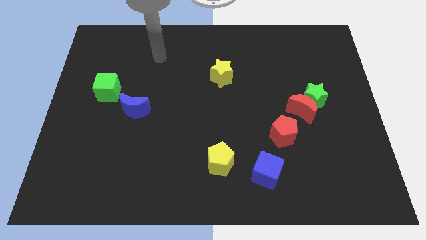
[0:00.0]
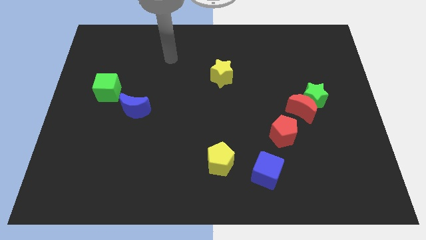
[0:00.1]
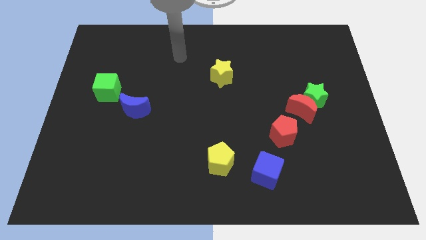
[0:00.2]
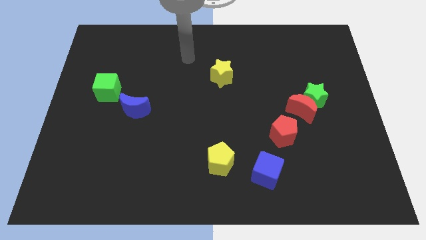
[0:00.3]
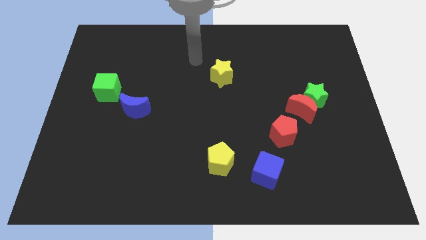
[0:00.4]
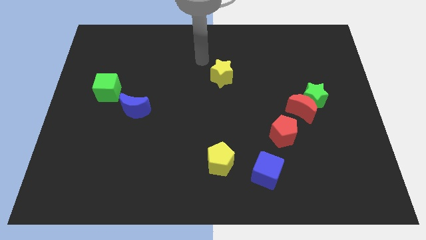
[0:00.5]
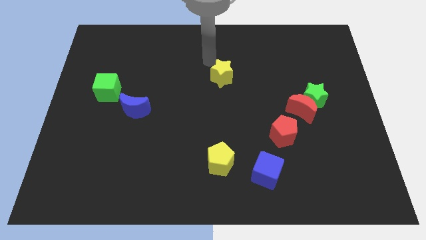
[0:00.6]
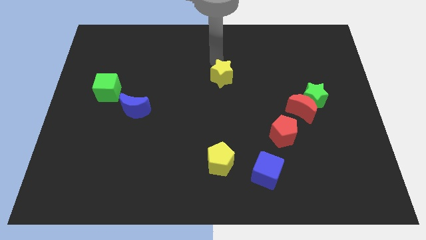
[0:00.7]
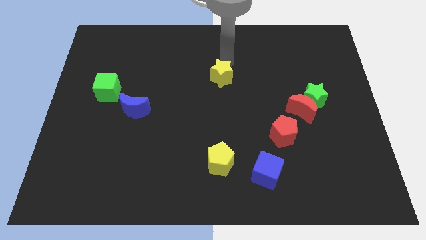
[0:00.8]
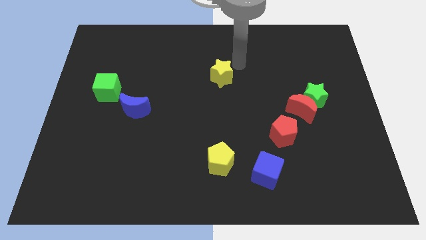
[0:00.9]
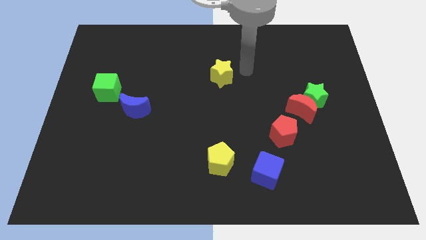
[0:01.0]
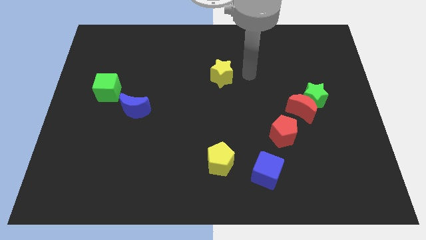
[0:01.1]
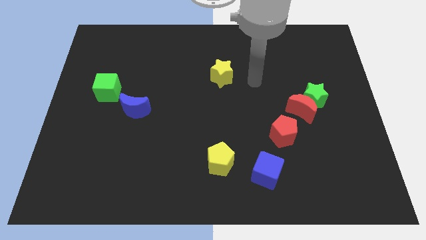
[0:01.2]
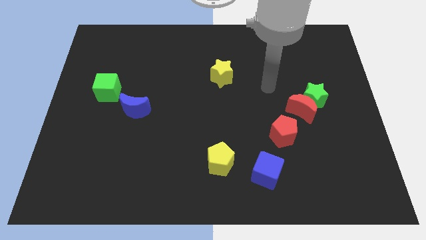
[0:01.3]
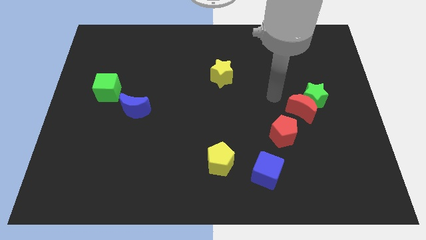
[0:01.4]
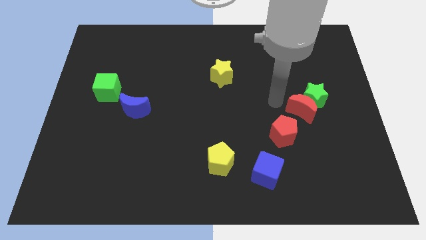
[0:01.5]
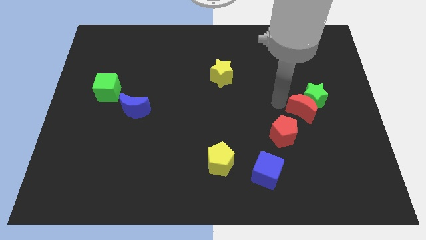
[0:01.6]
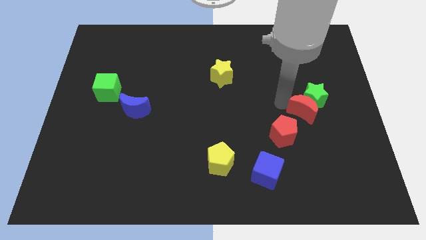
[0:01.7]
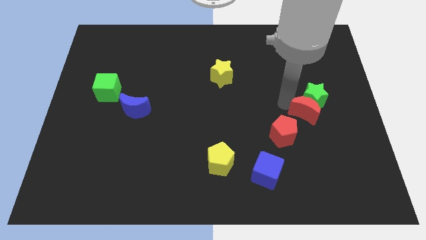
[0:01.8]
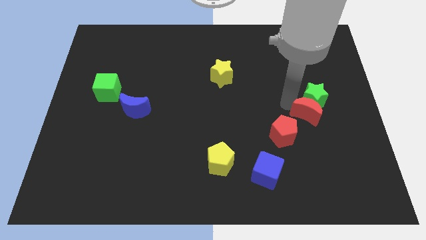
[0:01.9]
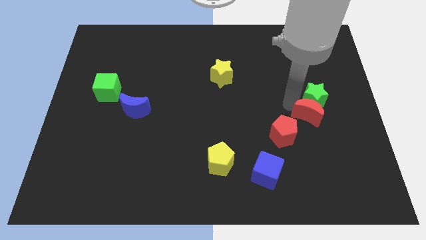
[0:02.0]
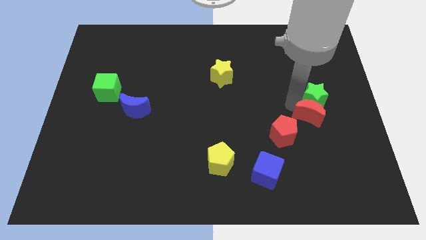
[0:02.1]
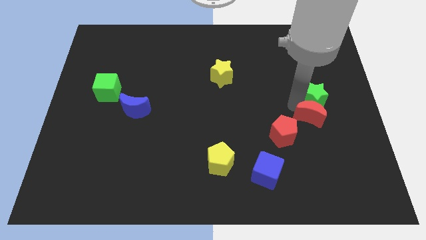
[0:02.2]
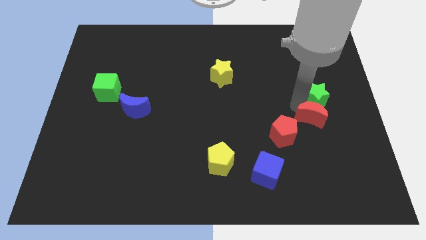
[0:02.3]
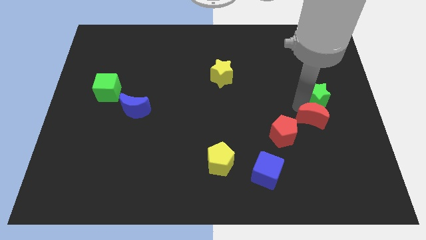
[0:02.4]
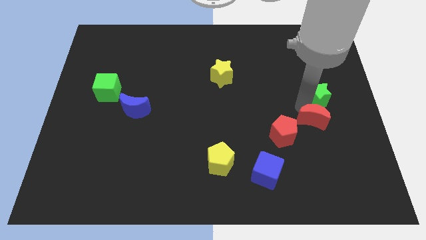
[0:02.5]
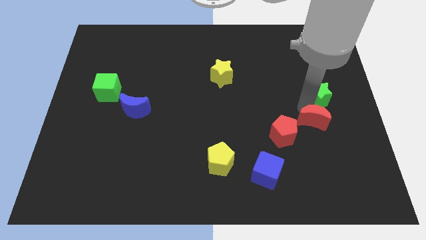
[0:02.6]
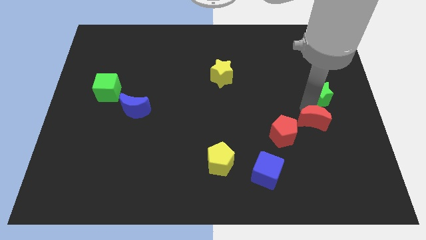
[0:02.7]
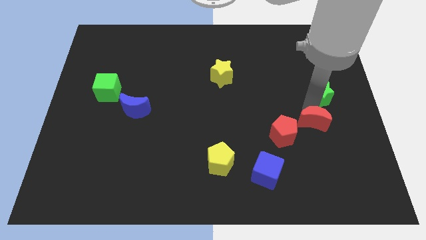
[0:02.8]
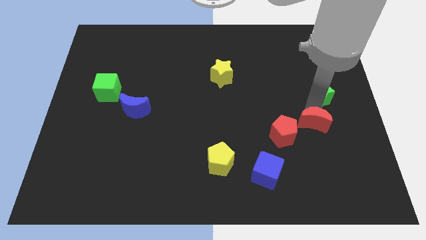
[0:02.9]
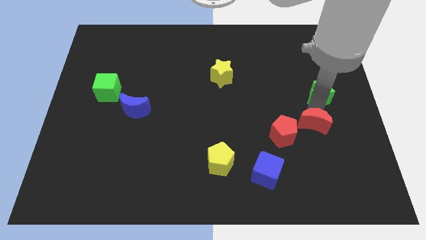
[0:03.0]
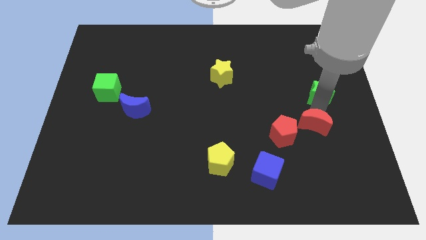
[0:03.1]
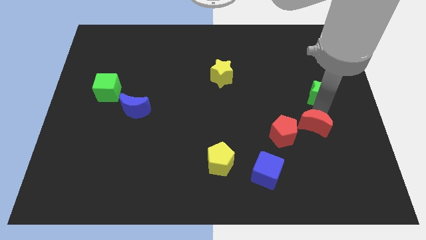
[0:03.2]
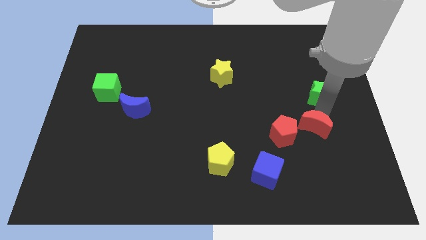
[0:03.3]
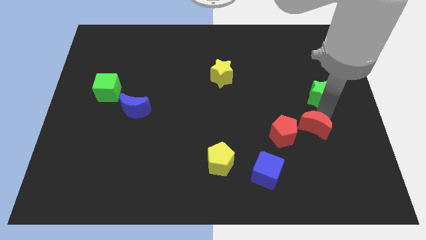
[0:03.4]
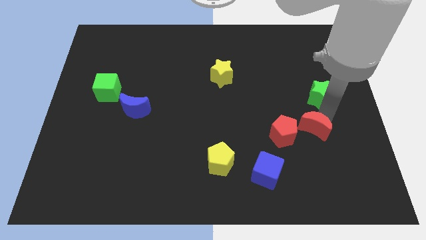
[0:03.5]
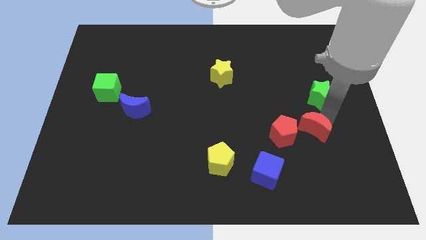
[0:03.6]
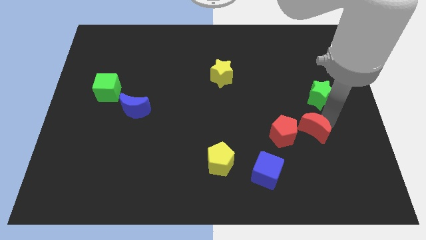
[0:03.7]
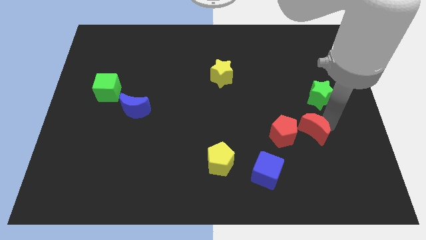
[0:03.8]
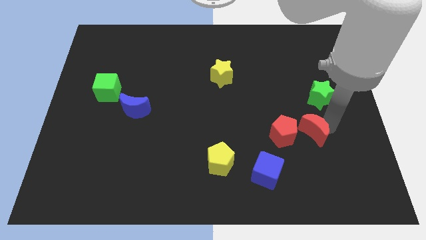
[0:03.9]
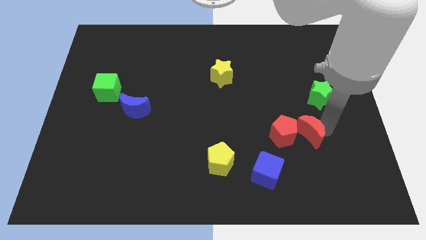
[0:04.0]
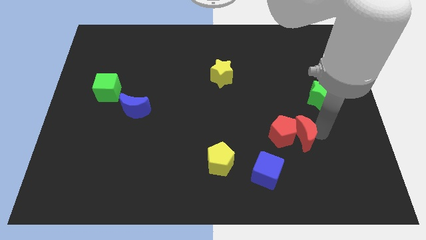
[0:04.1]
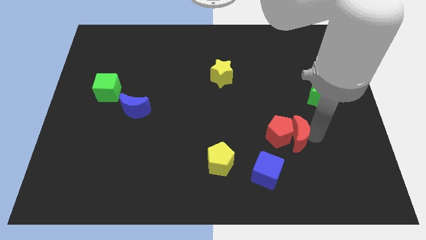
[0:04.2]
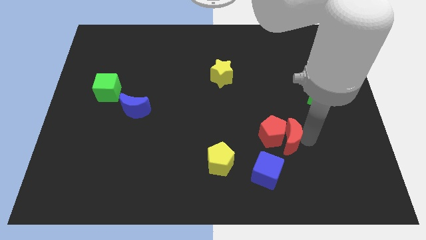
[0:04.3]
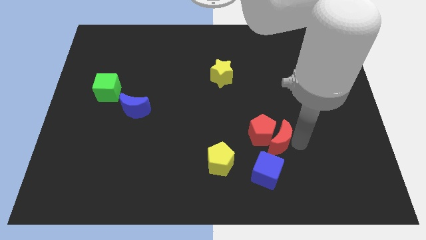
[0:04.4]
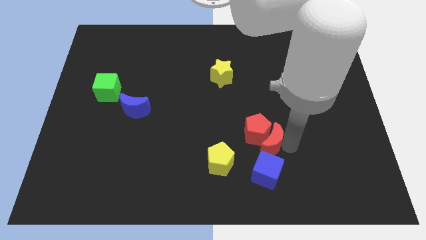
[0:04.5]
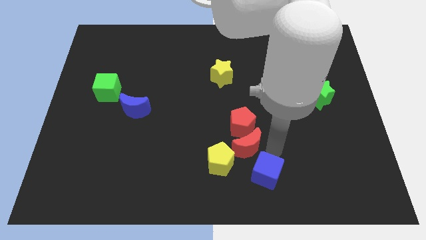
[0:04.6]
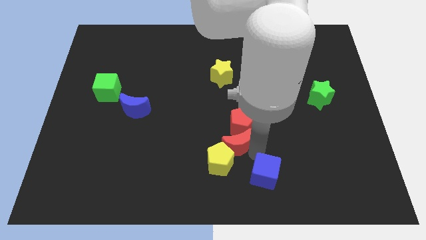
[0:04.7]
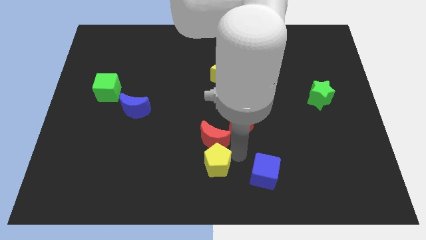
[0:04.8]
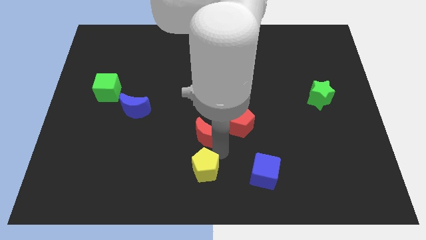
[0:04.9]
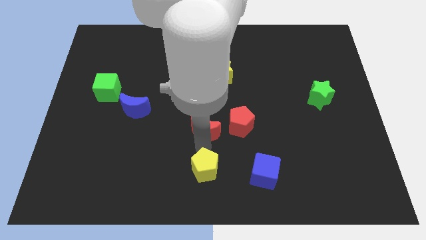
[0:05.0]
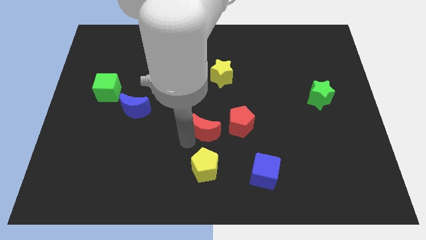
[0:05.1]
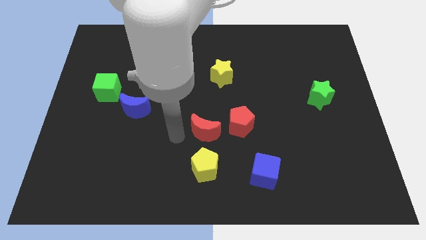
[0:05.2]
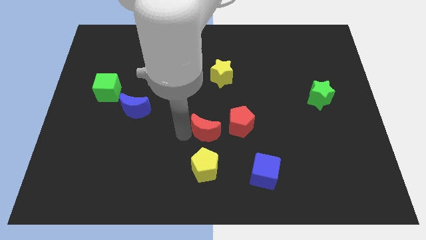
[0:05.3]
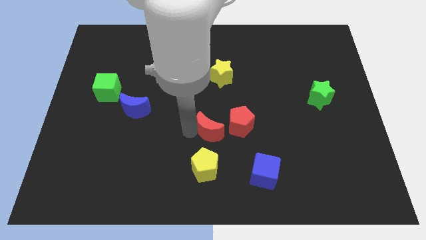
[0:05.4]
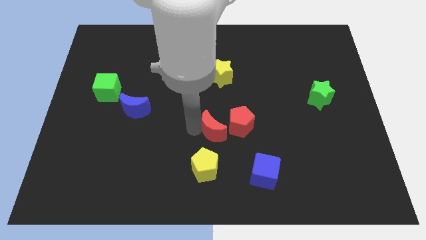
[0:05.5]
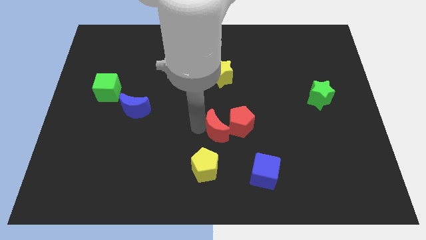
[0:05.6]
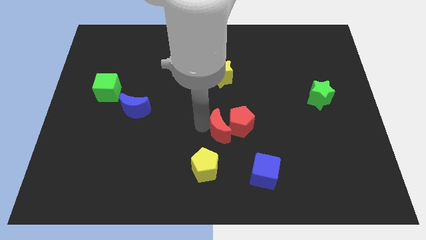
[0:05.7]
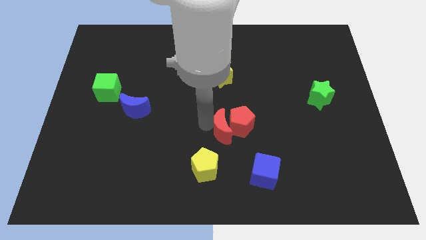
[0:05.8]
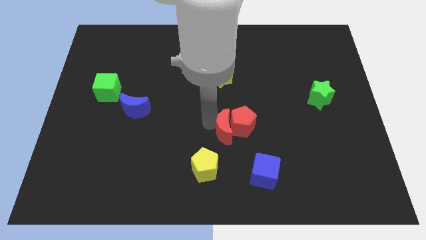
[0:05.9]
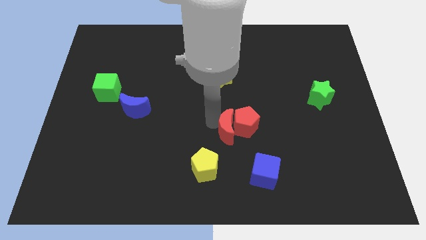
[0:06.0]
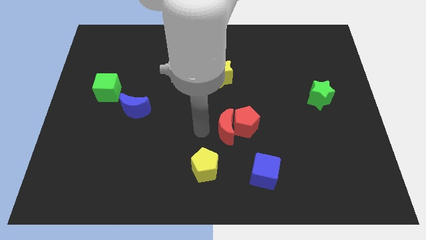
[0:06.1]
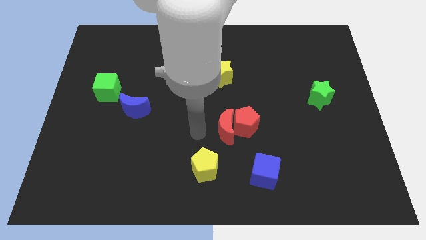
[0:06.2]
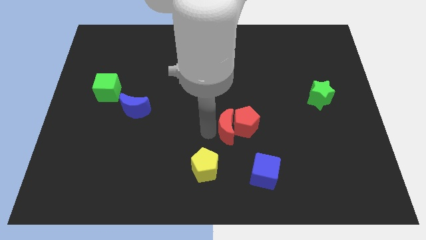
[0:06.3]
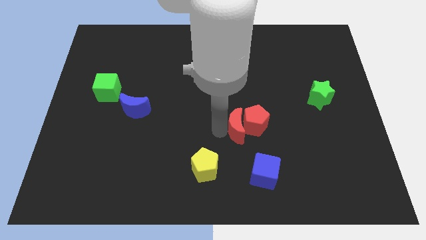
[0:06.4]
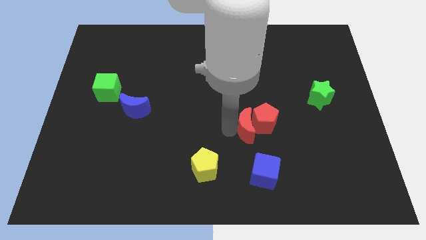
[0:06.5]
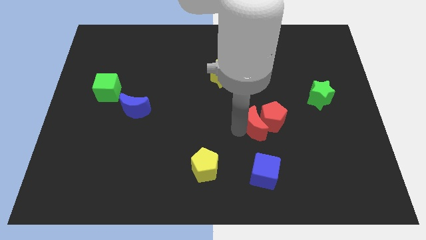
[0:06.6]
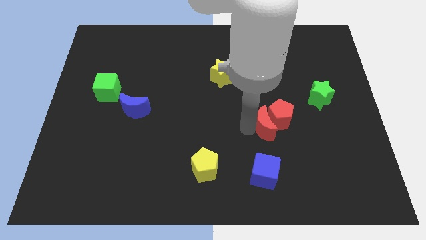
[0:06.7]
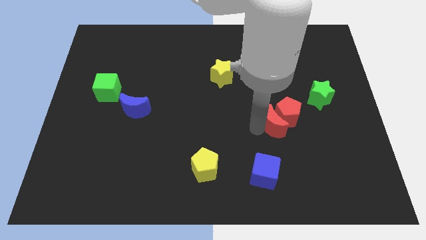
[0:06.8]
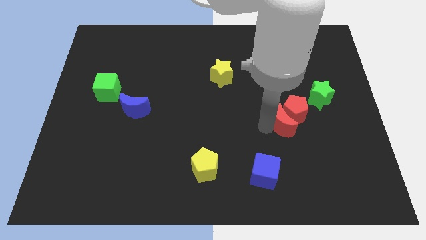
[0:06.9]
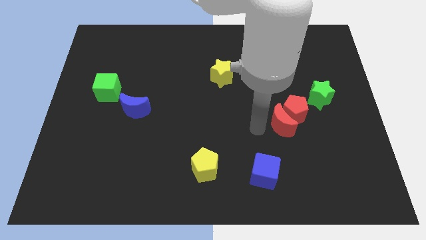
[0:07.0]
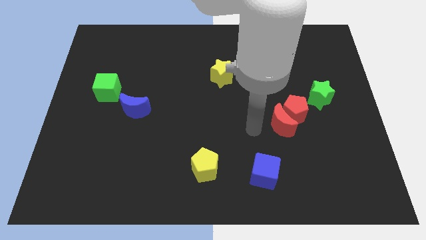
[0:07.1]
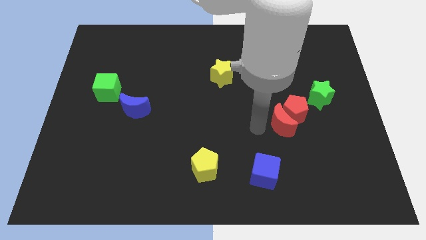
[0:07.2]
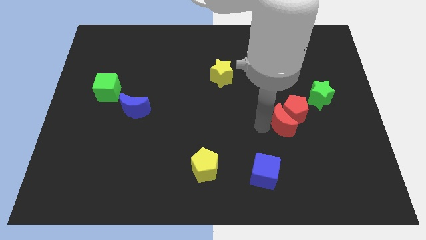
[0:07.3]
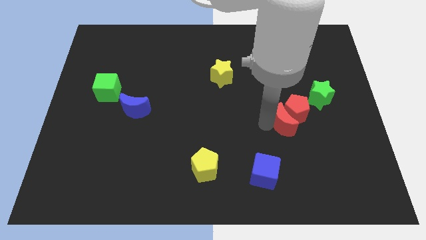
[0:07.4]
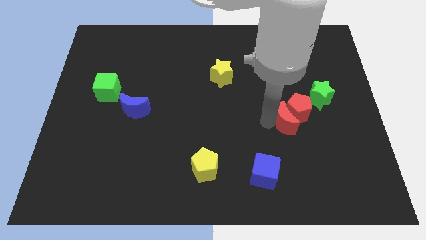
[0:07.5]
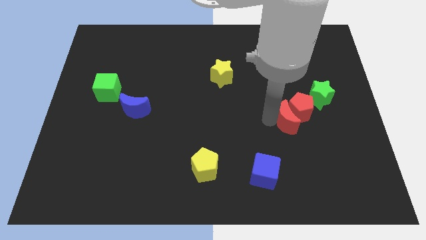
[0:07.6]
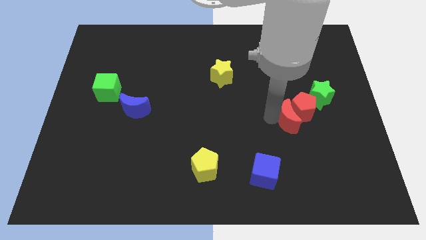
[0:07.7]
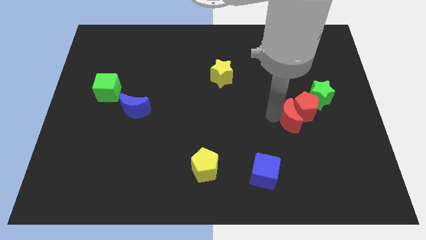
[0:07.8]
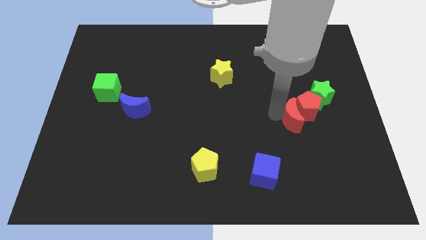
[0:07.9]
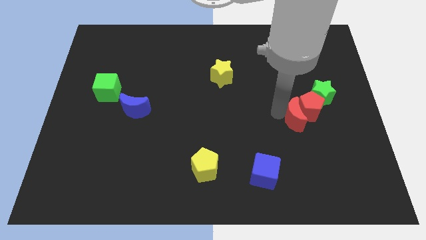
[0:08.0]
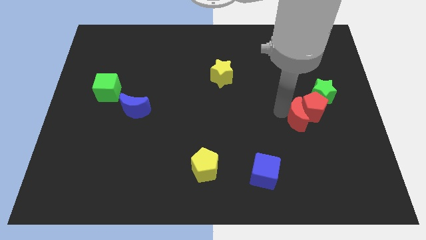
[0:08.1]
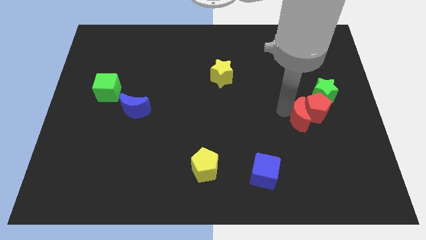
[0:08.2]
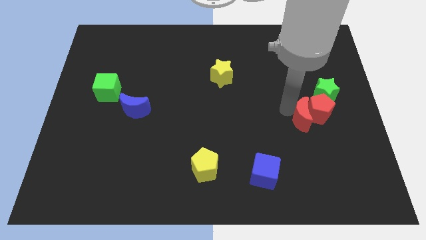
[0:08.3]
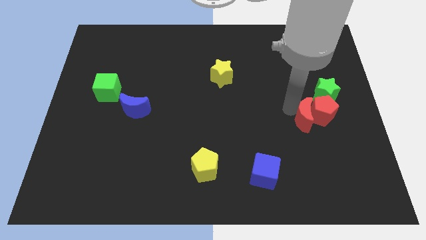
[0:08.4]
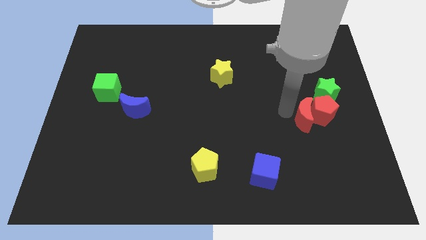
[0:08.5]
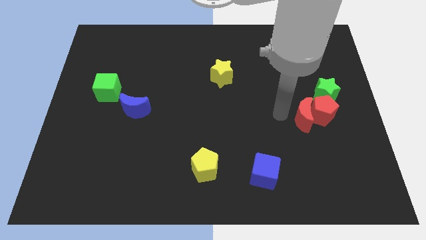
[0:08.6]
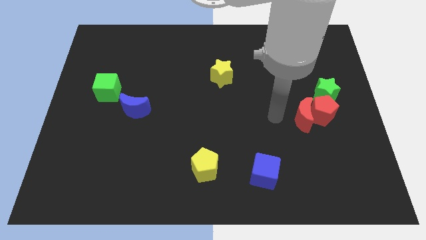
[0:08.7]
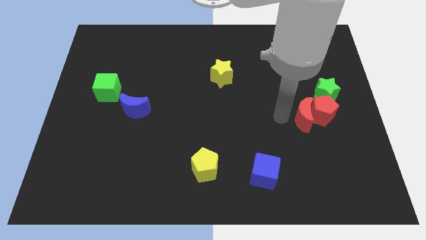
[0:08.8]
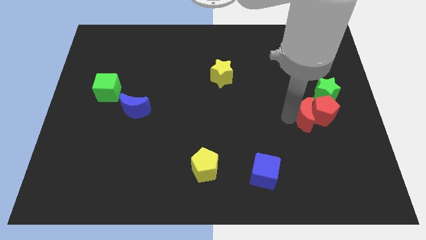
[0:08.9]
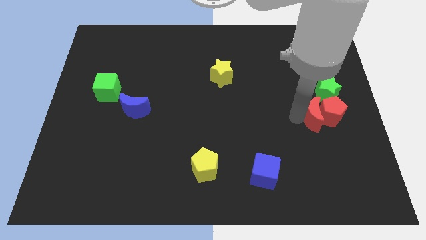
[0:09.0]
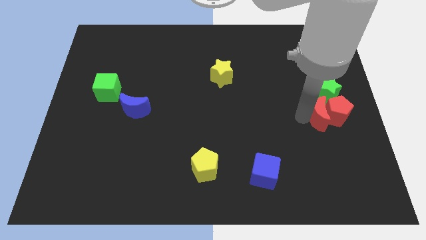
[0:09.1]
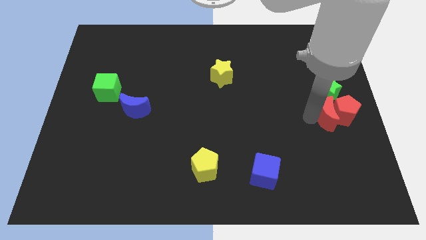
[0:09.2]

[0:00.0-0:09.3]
move the red moon to the center right
